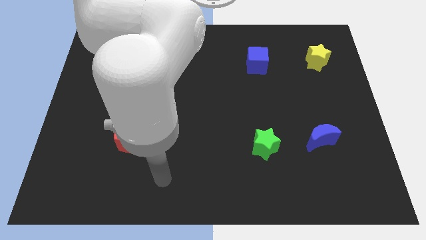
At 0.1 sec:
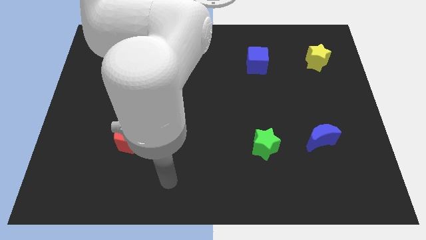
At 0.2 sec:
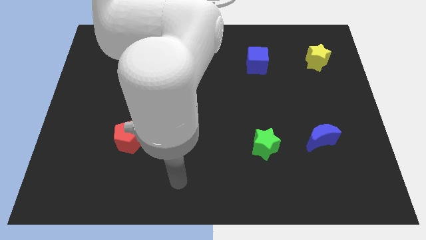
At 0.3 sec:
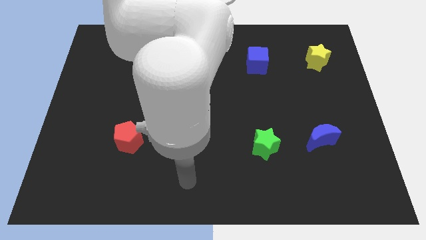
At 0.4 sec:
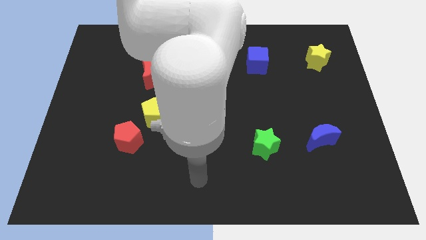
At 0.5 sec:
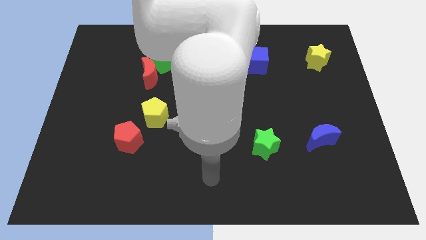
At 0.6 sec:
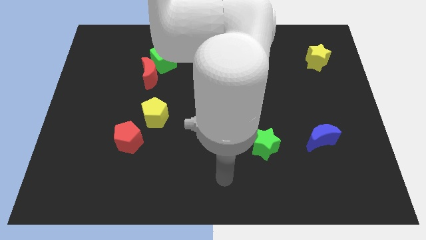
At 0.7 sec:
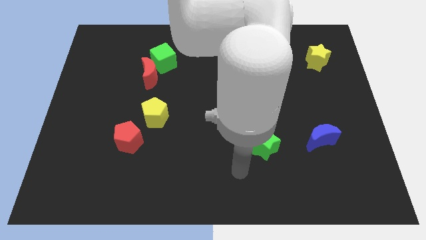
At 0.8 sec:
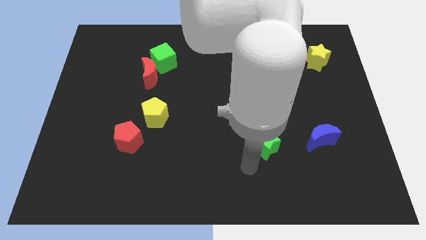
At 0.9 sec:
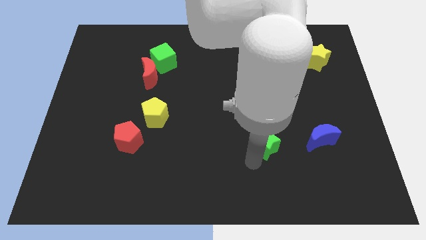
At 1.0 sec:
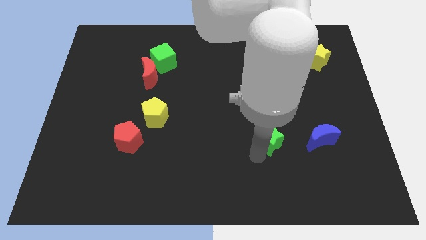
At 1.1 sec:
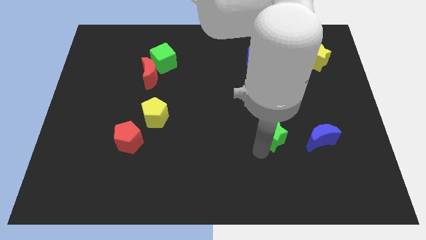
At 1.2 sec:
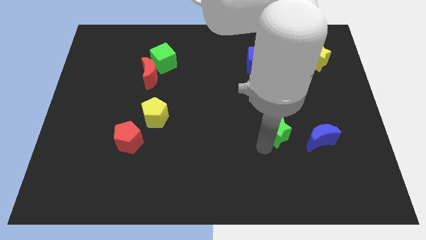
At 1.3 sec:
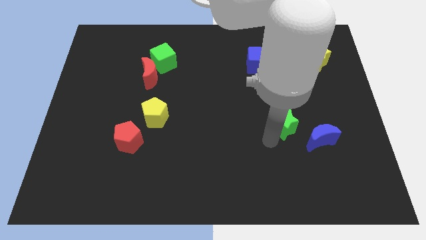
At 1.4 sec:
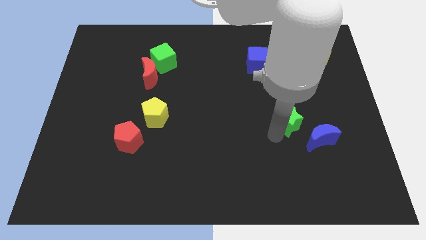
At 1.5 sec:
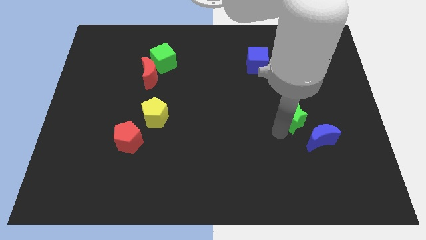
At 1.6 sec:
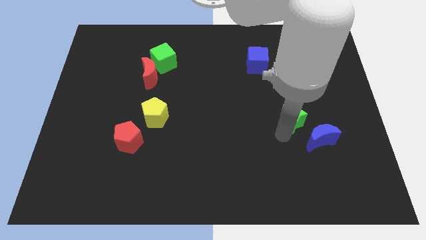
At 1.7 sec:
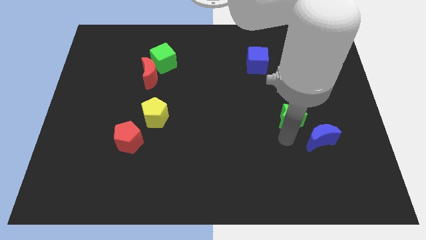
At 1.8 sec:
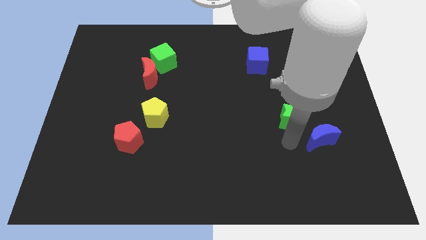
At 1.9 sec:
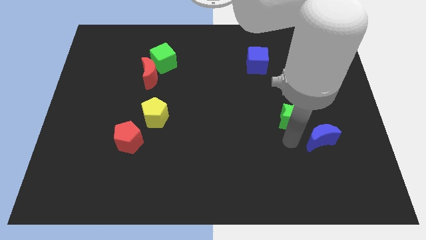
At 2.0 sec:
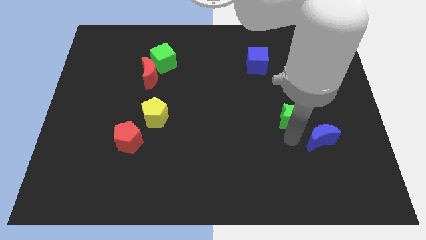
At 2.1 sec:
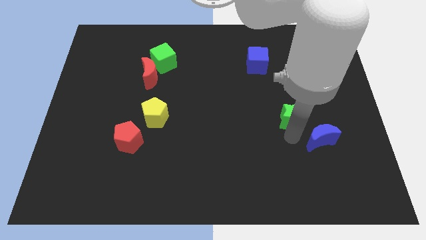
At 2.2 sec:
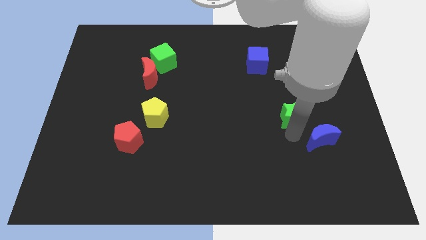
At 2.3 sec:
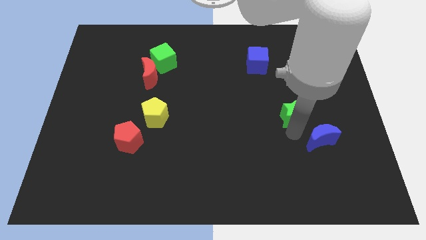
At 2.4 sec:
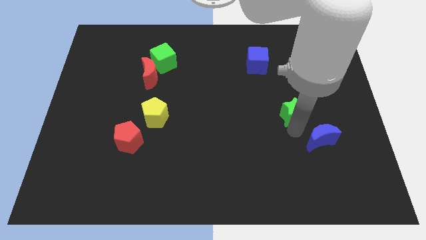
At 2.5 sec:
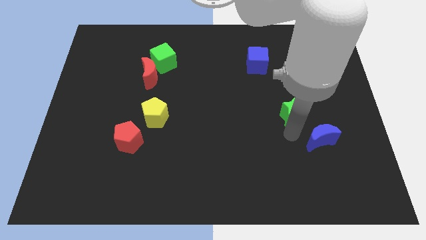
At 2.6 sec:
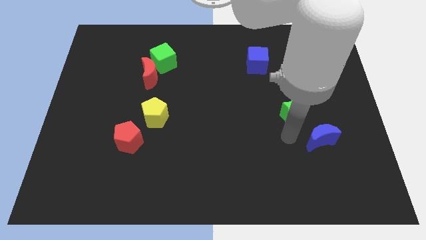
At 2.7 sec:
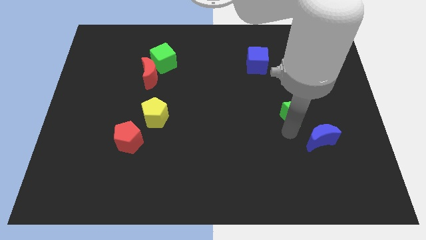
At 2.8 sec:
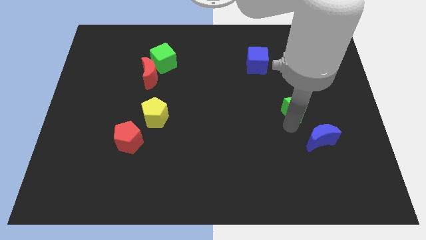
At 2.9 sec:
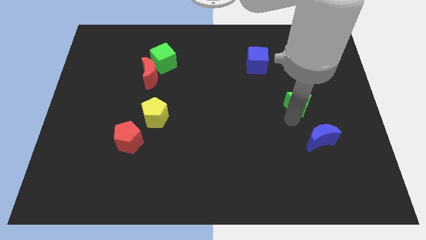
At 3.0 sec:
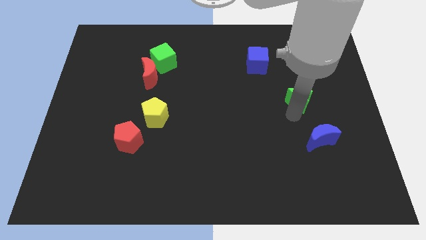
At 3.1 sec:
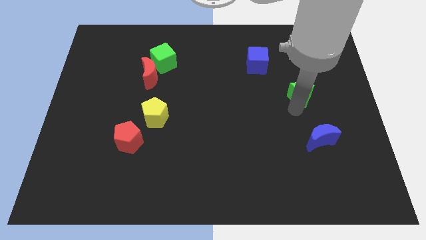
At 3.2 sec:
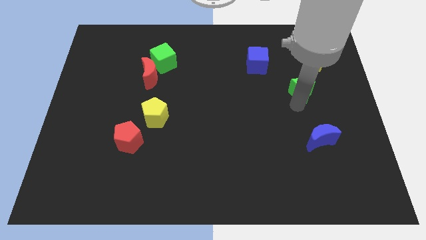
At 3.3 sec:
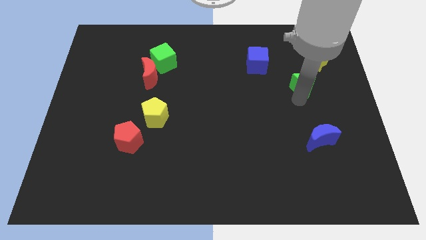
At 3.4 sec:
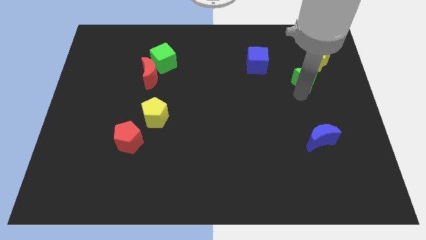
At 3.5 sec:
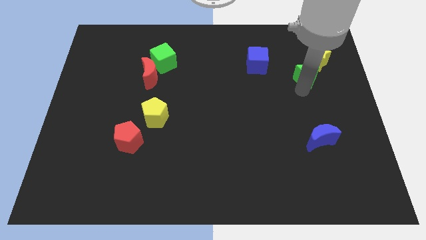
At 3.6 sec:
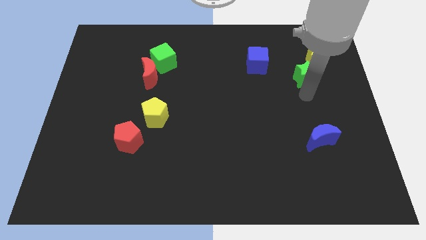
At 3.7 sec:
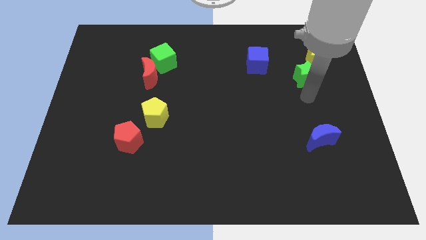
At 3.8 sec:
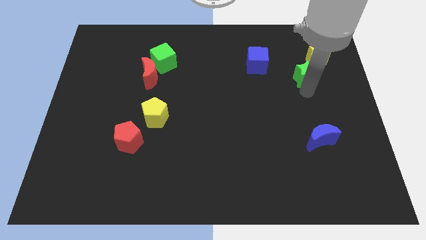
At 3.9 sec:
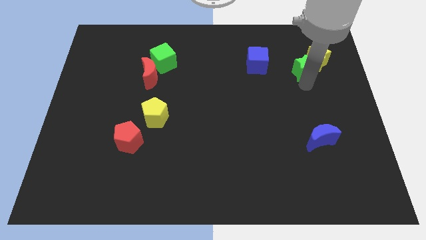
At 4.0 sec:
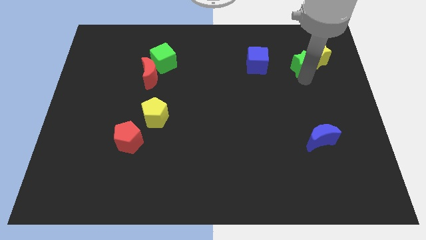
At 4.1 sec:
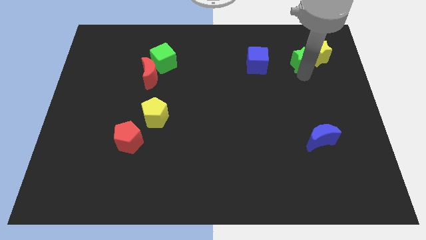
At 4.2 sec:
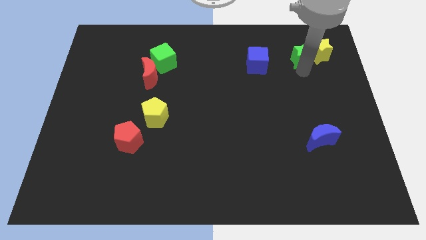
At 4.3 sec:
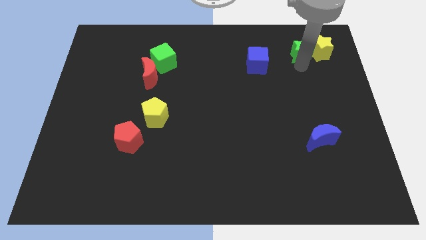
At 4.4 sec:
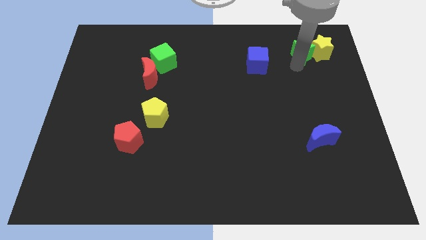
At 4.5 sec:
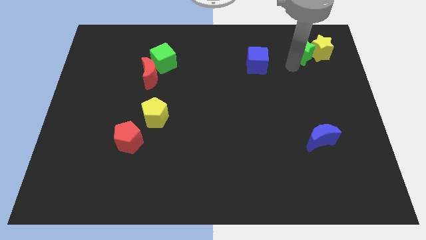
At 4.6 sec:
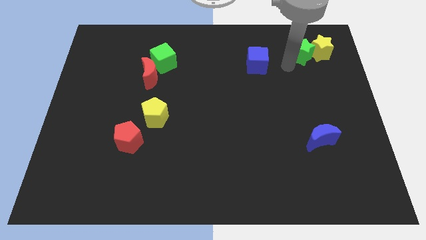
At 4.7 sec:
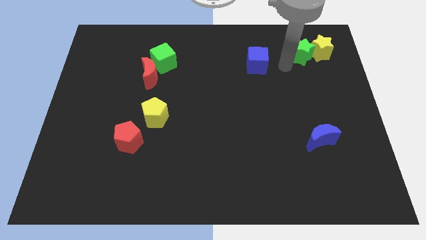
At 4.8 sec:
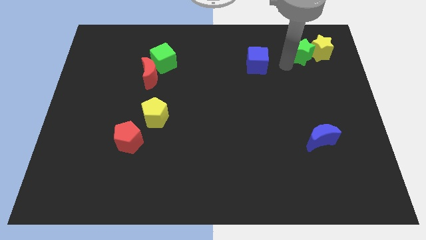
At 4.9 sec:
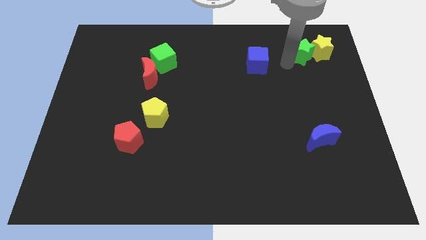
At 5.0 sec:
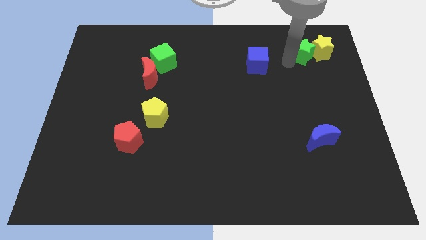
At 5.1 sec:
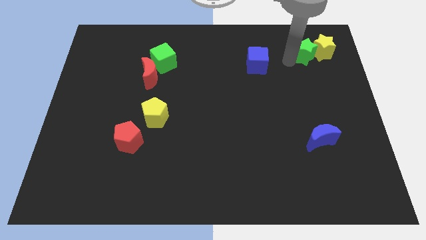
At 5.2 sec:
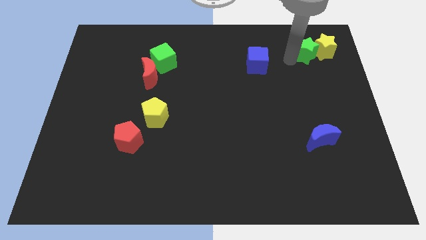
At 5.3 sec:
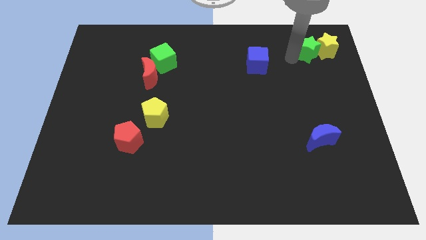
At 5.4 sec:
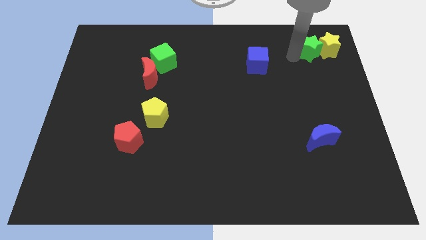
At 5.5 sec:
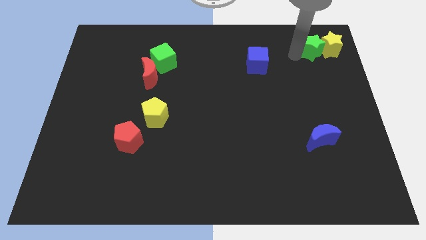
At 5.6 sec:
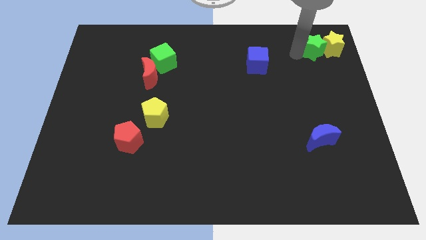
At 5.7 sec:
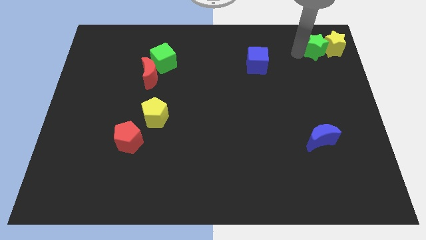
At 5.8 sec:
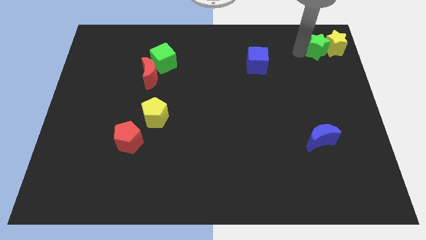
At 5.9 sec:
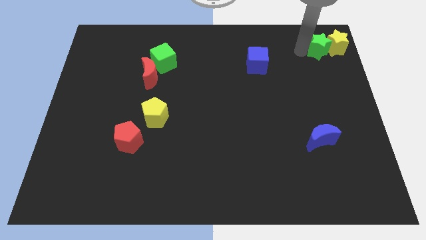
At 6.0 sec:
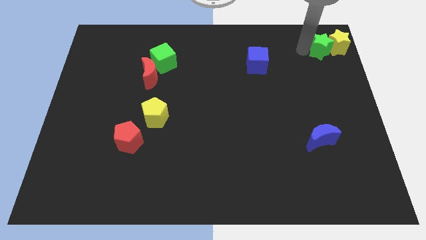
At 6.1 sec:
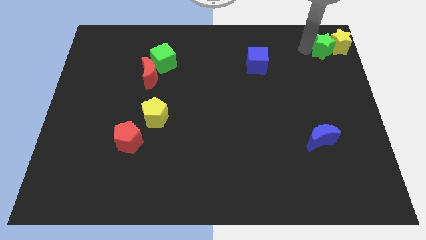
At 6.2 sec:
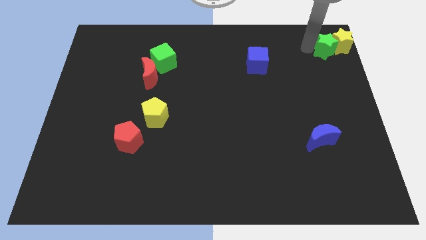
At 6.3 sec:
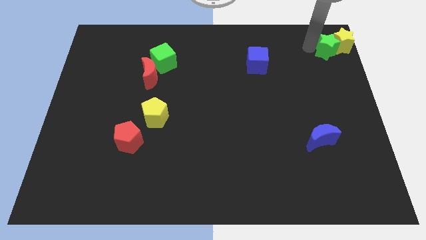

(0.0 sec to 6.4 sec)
slide the green star to the top right
